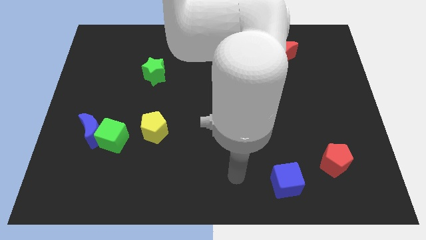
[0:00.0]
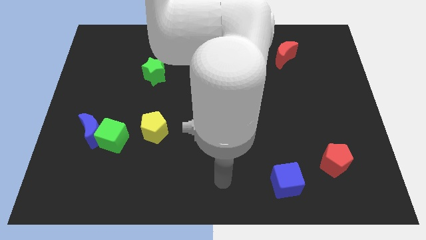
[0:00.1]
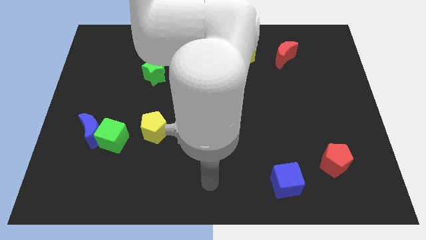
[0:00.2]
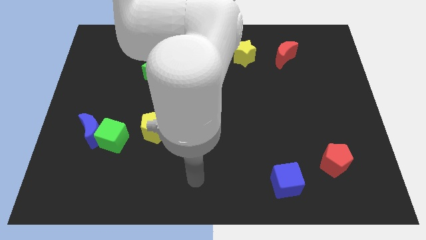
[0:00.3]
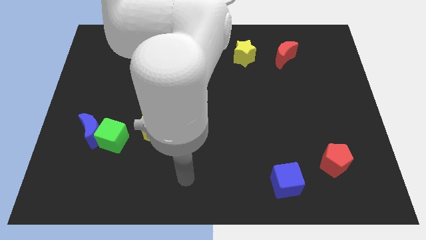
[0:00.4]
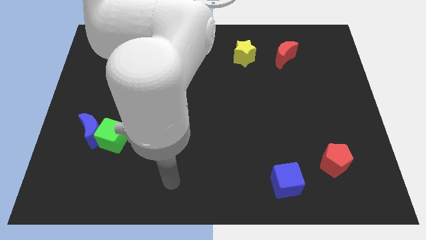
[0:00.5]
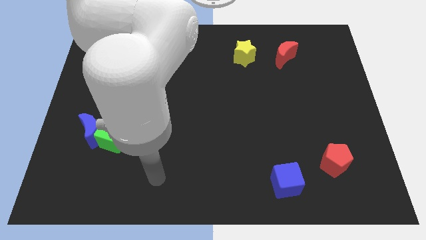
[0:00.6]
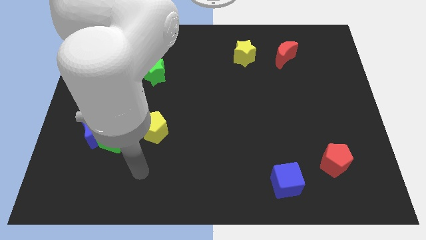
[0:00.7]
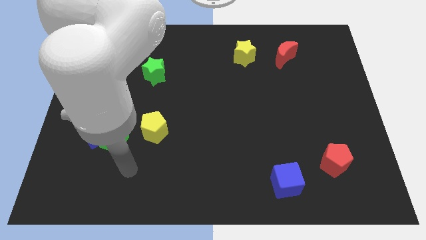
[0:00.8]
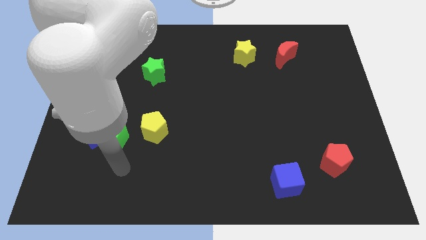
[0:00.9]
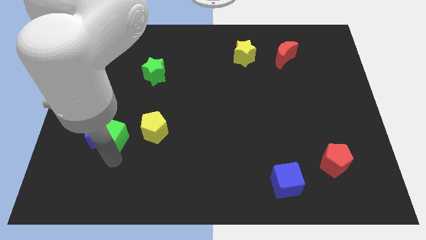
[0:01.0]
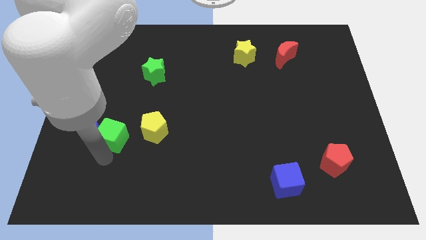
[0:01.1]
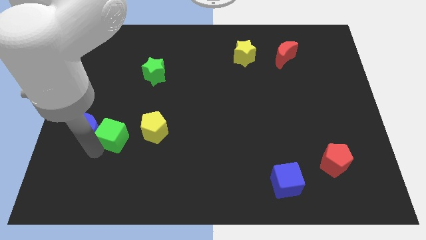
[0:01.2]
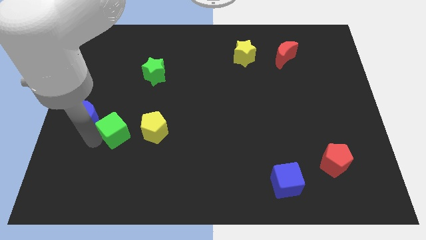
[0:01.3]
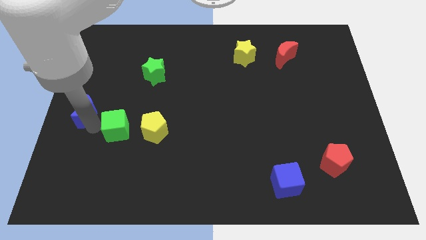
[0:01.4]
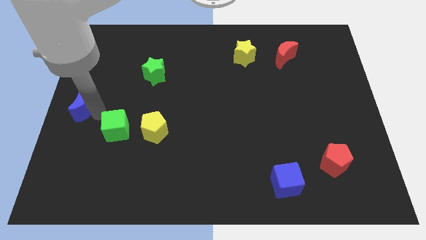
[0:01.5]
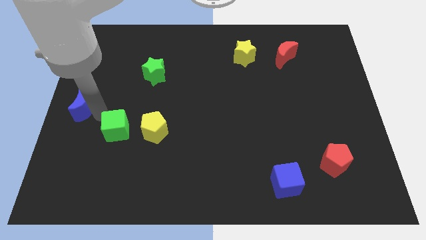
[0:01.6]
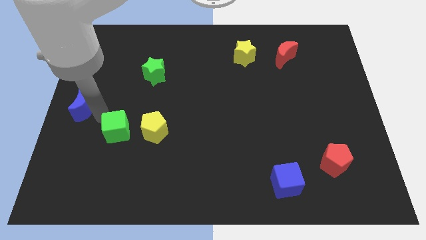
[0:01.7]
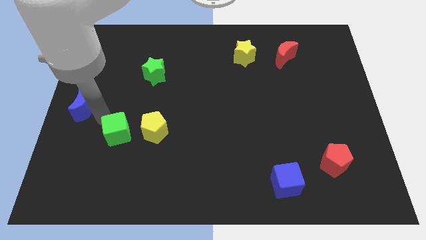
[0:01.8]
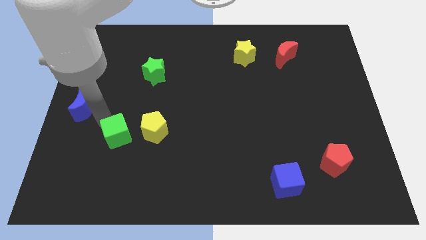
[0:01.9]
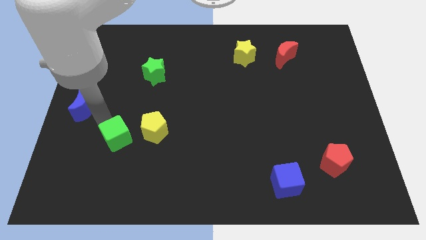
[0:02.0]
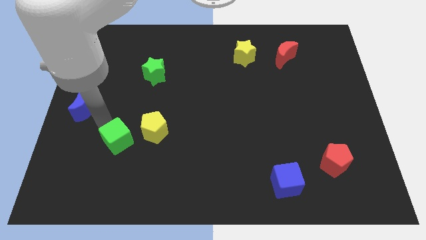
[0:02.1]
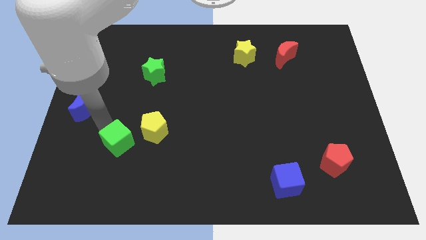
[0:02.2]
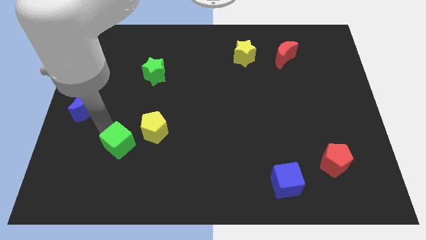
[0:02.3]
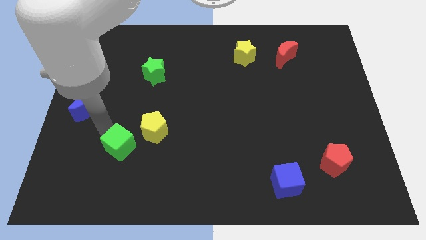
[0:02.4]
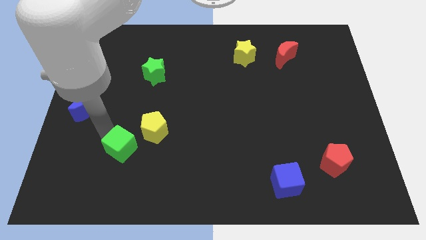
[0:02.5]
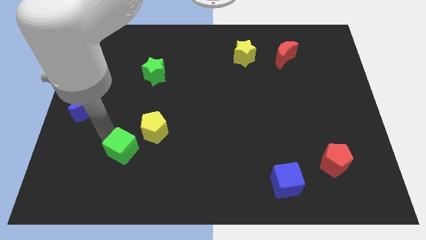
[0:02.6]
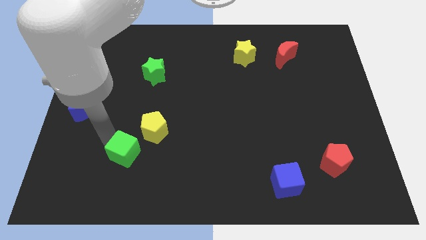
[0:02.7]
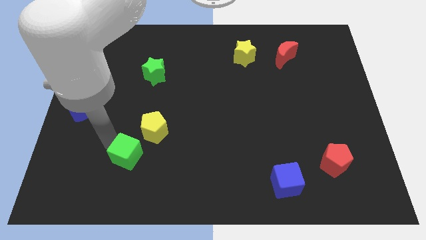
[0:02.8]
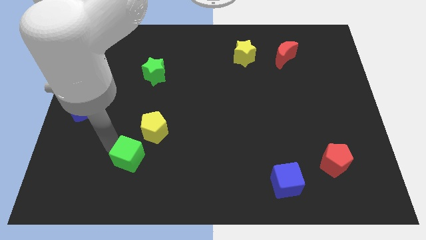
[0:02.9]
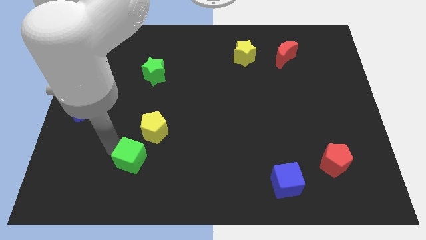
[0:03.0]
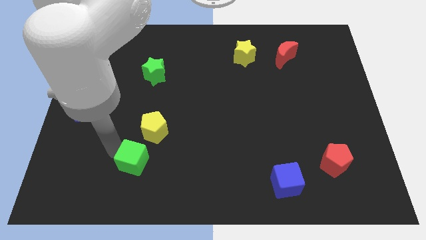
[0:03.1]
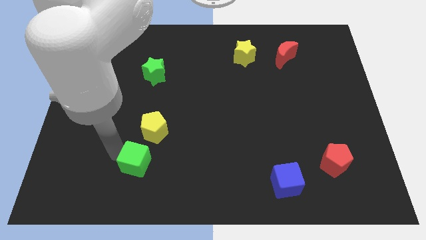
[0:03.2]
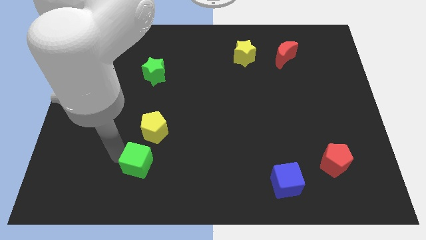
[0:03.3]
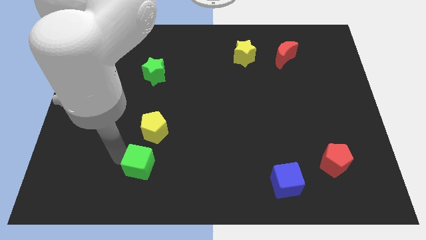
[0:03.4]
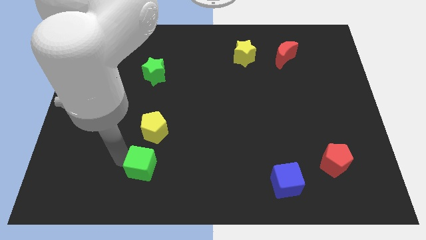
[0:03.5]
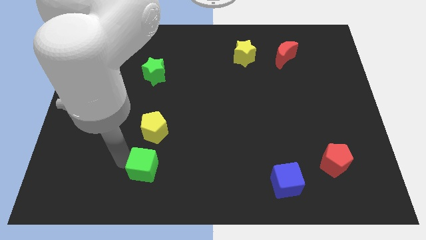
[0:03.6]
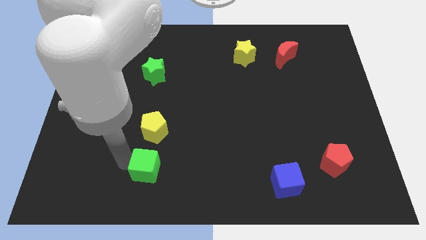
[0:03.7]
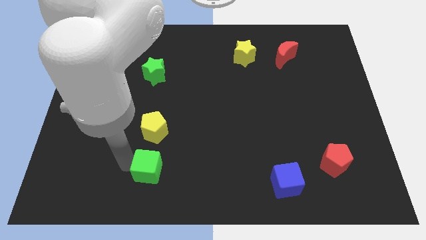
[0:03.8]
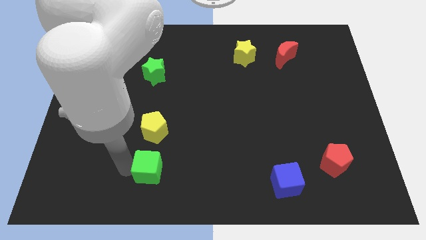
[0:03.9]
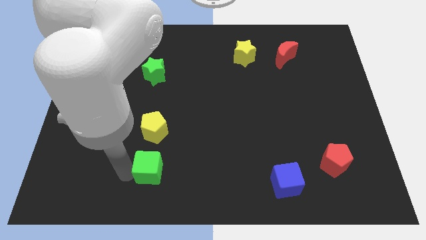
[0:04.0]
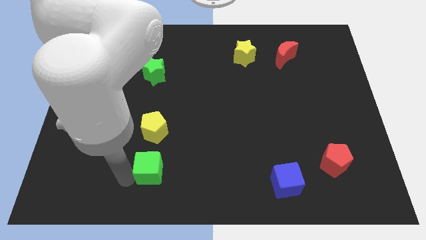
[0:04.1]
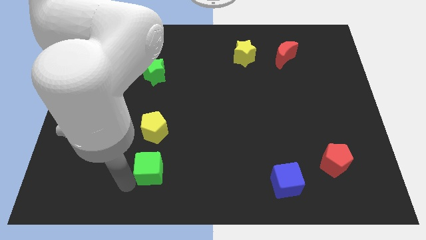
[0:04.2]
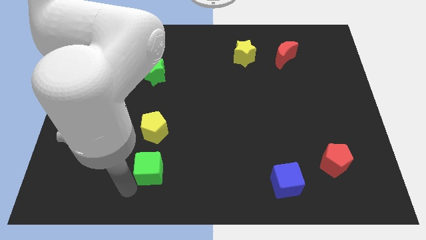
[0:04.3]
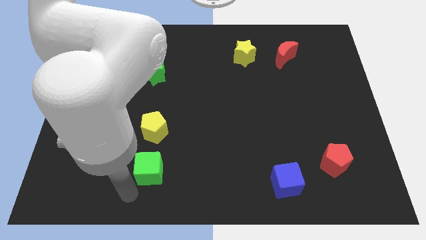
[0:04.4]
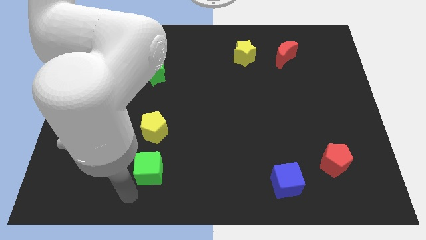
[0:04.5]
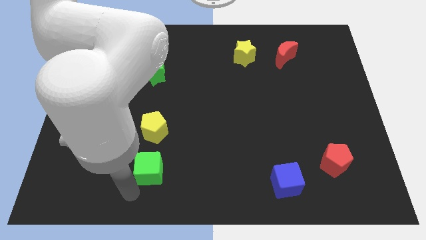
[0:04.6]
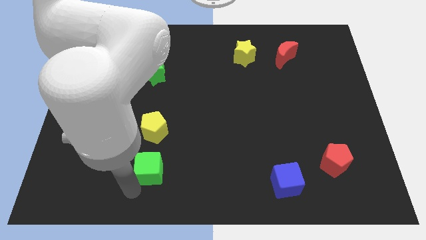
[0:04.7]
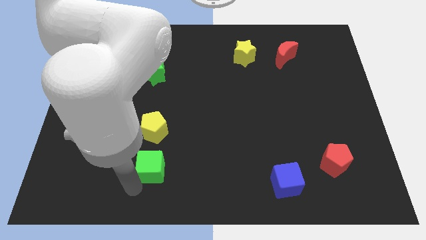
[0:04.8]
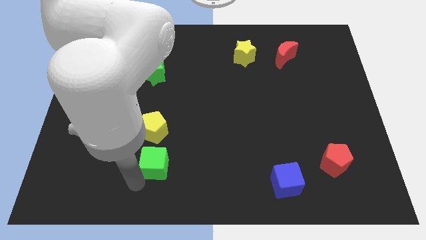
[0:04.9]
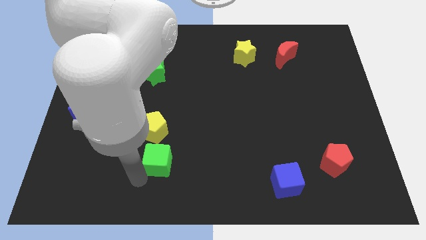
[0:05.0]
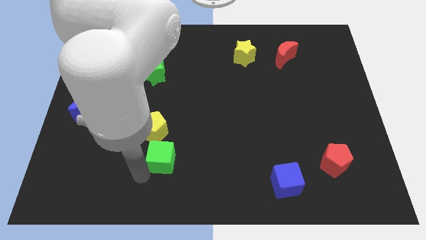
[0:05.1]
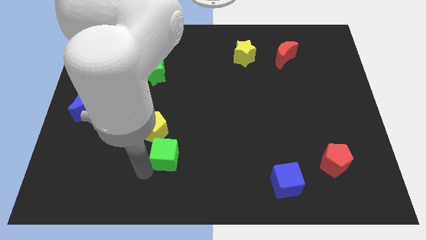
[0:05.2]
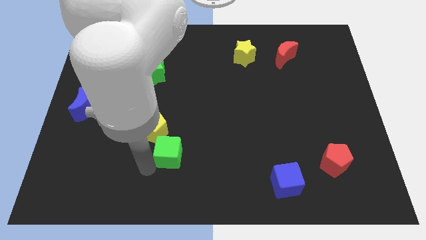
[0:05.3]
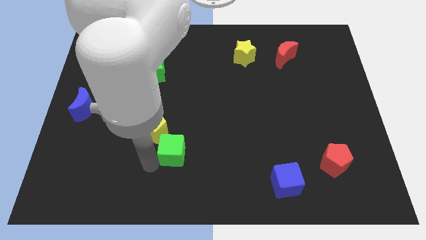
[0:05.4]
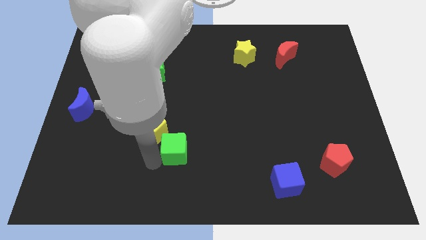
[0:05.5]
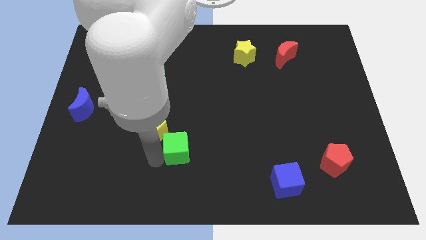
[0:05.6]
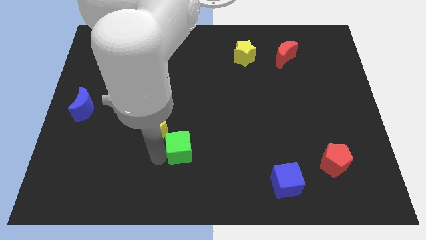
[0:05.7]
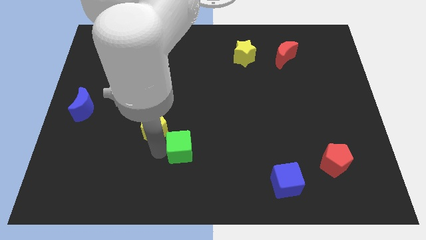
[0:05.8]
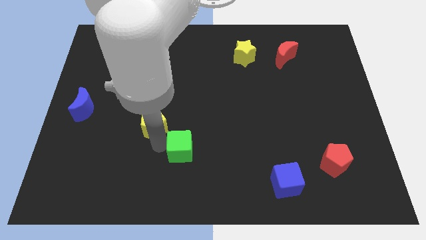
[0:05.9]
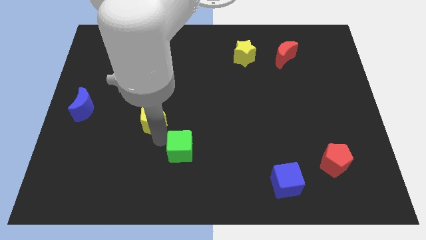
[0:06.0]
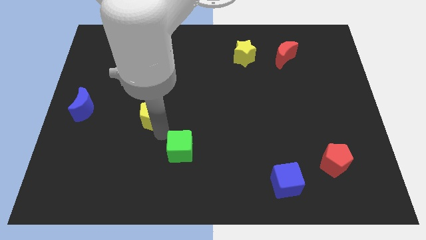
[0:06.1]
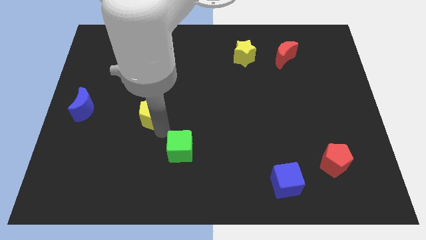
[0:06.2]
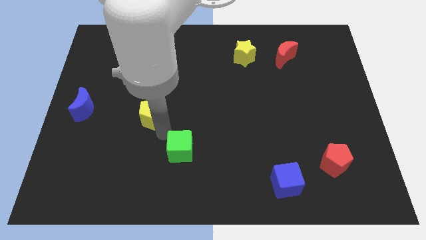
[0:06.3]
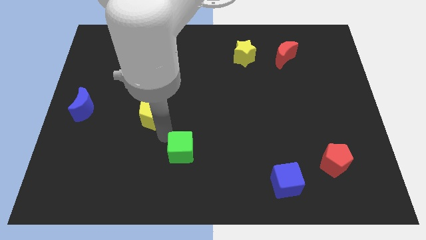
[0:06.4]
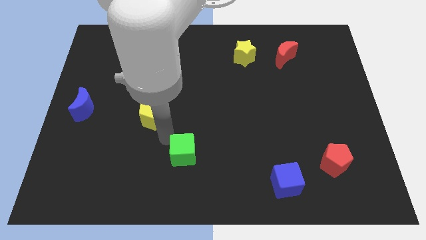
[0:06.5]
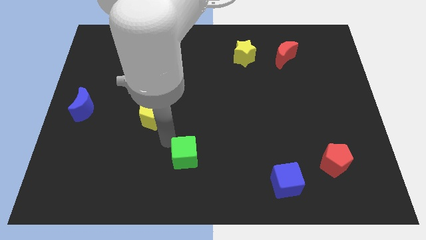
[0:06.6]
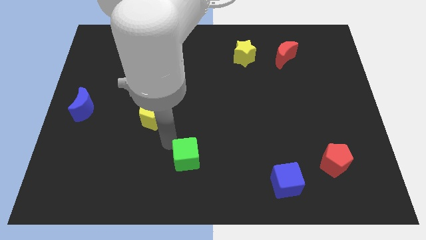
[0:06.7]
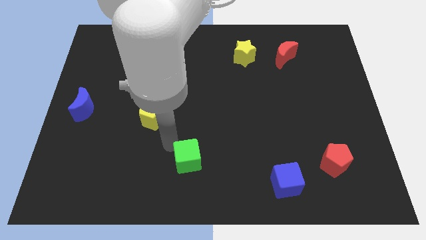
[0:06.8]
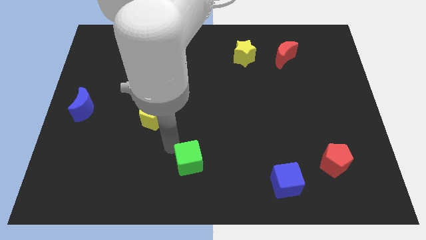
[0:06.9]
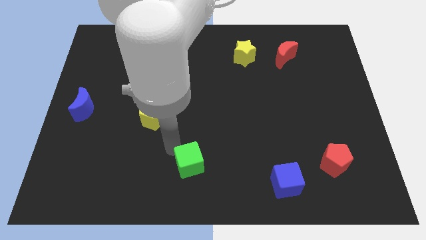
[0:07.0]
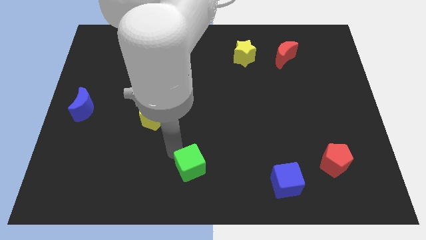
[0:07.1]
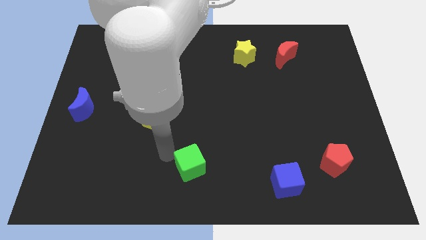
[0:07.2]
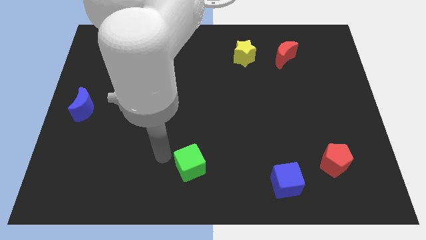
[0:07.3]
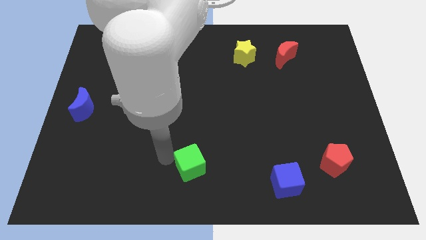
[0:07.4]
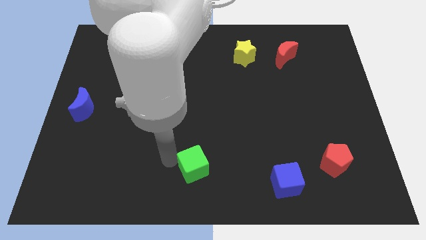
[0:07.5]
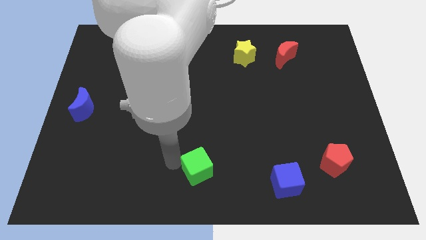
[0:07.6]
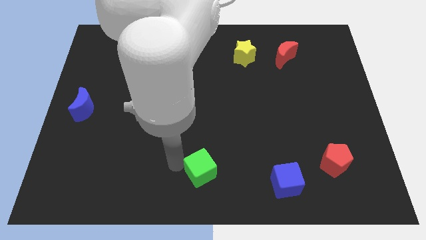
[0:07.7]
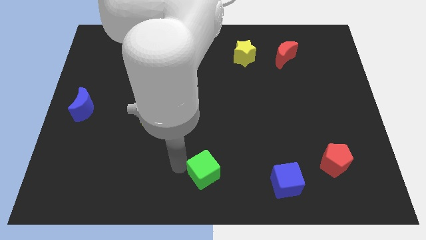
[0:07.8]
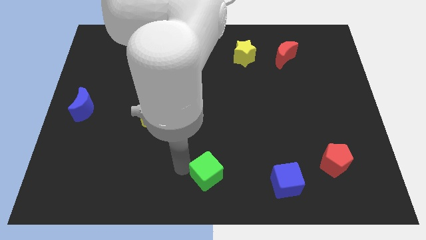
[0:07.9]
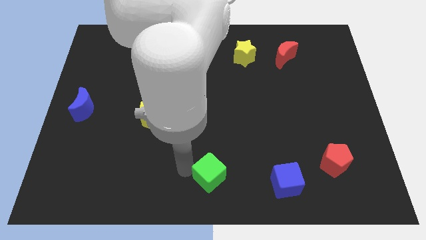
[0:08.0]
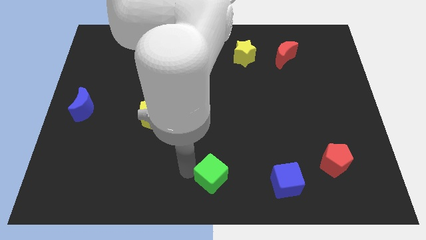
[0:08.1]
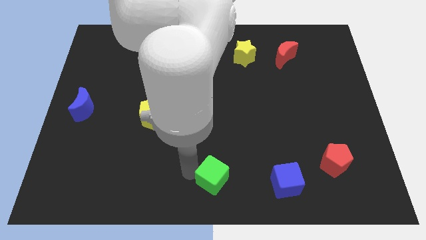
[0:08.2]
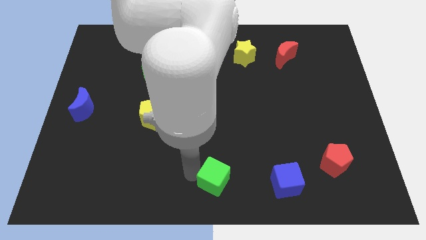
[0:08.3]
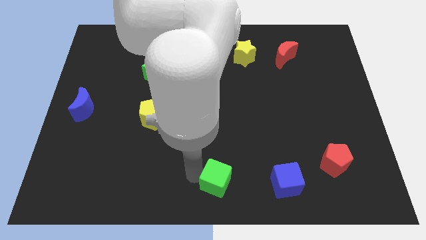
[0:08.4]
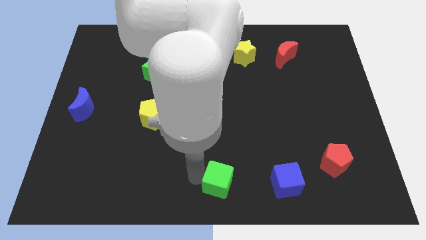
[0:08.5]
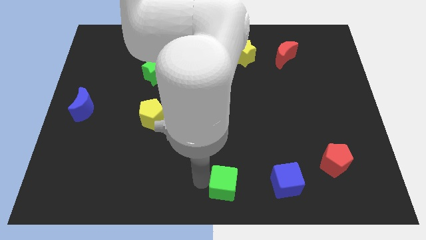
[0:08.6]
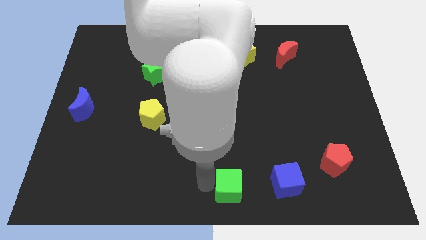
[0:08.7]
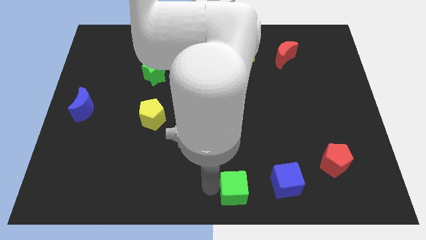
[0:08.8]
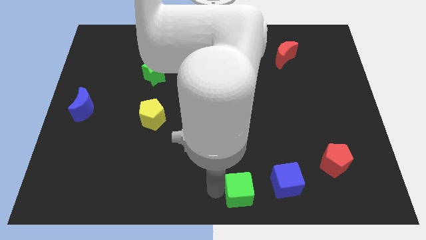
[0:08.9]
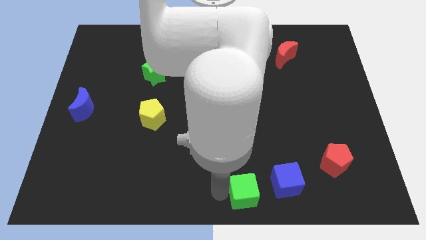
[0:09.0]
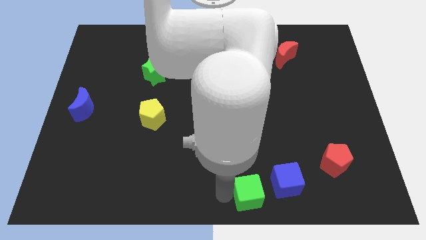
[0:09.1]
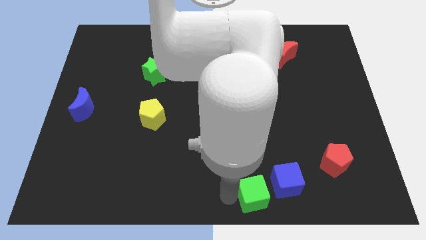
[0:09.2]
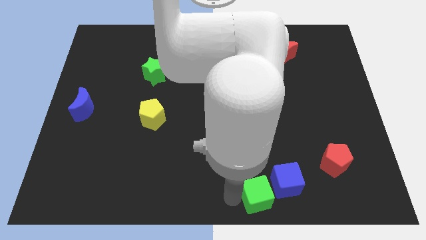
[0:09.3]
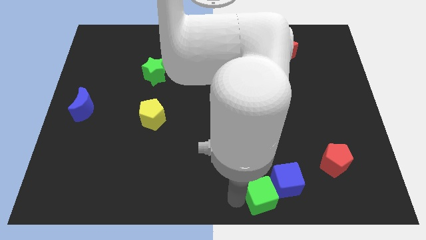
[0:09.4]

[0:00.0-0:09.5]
move the green cube next to the blue cube
